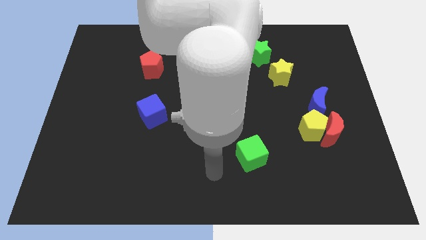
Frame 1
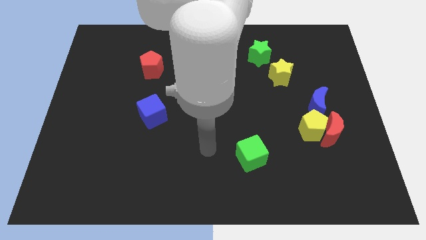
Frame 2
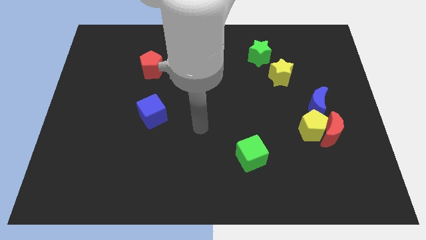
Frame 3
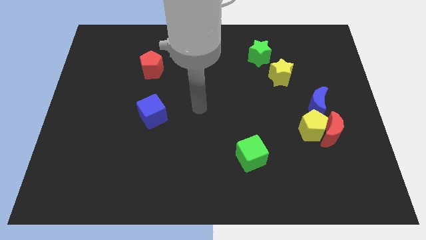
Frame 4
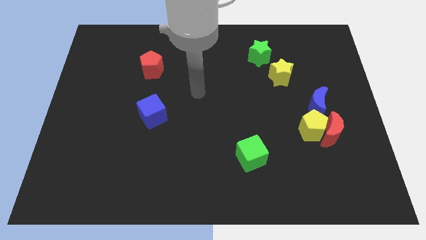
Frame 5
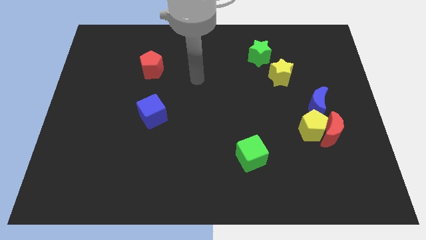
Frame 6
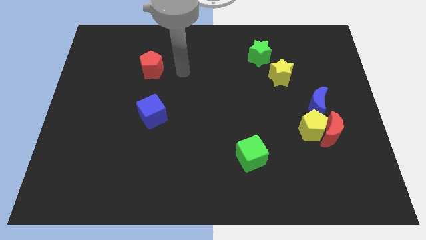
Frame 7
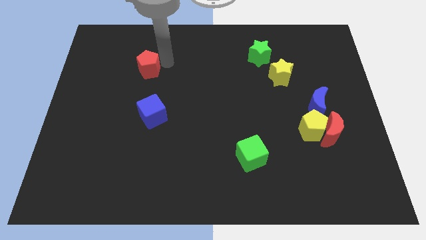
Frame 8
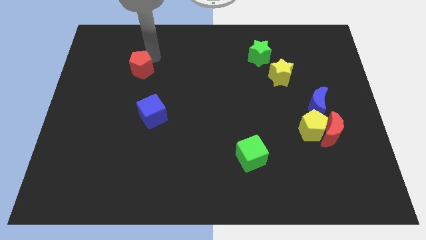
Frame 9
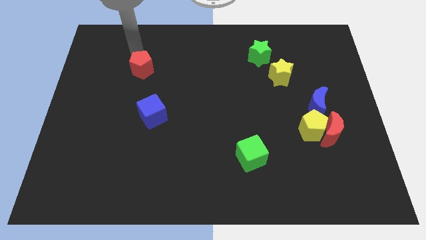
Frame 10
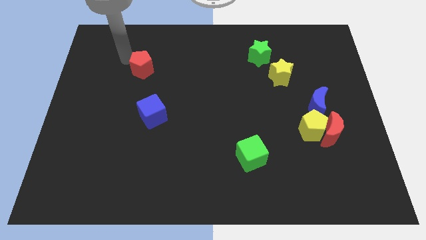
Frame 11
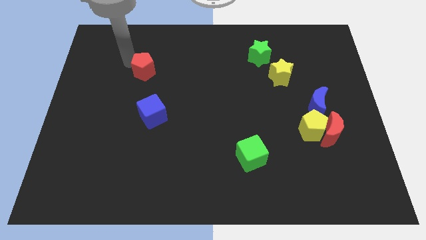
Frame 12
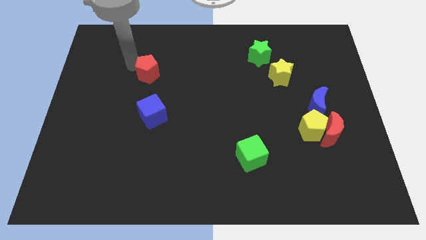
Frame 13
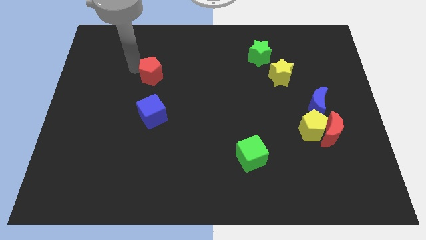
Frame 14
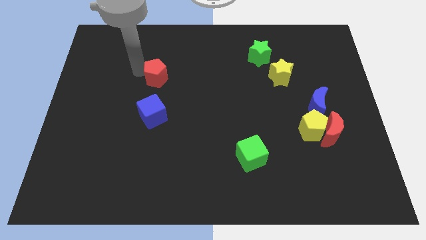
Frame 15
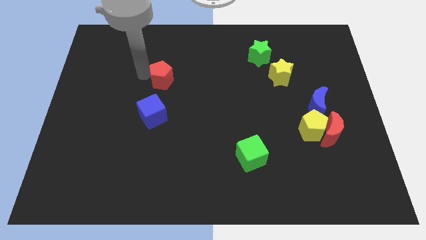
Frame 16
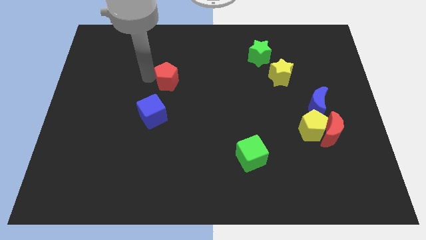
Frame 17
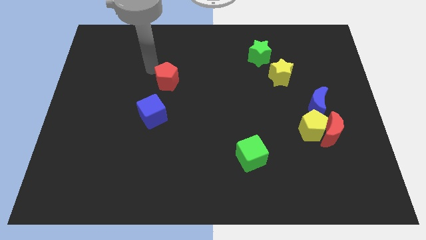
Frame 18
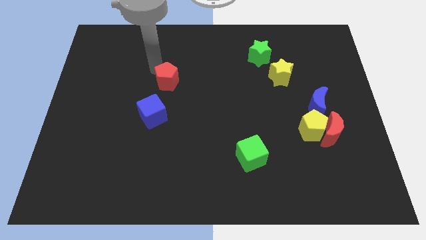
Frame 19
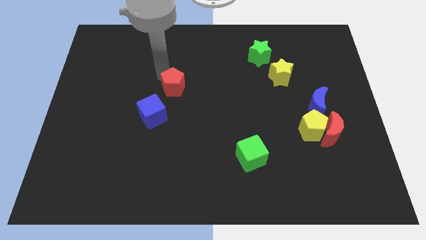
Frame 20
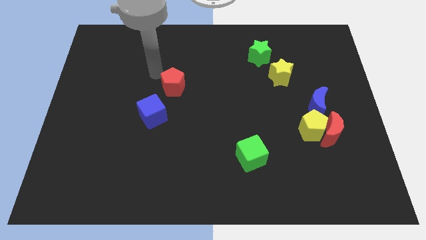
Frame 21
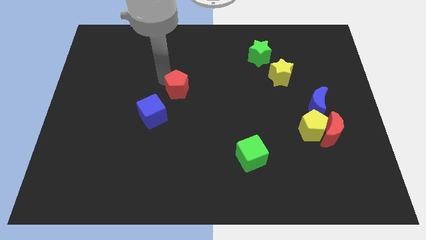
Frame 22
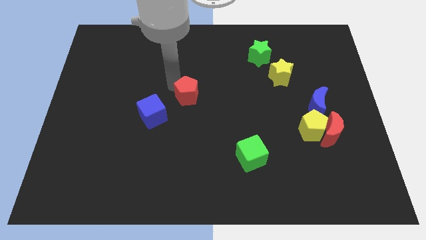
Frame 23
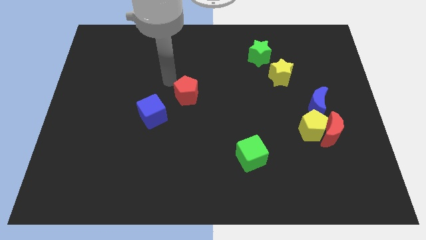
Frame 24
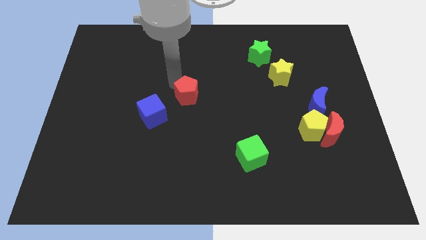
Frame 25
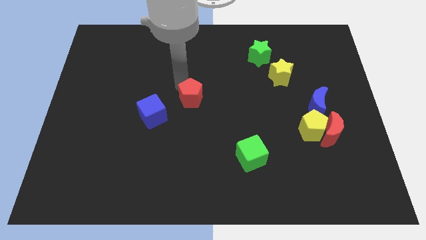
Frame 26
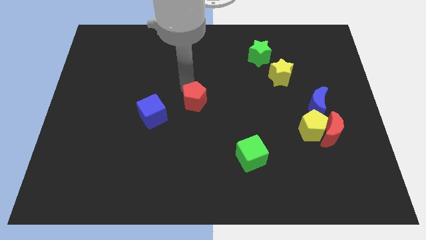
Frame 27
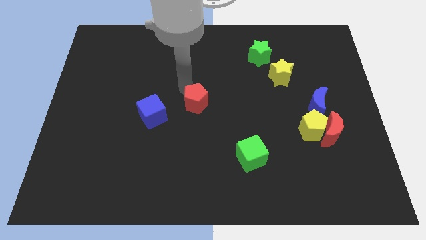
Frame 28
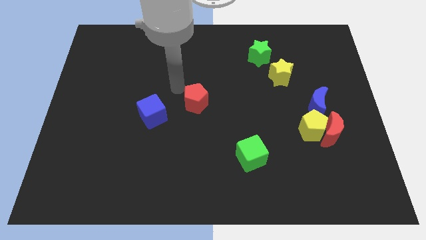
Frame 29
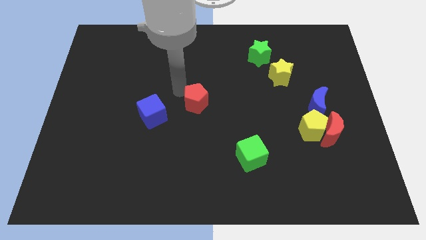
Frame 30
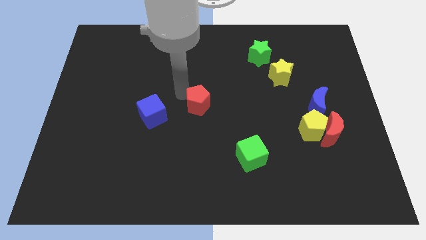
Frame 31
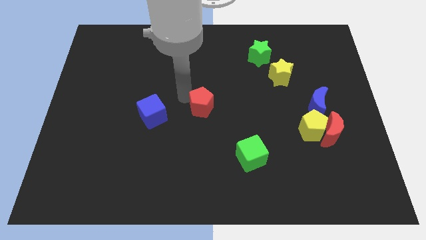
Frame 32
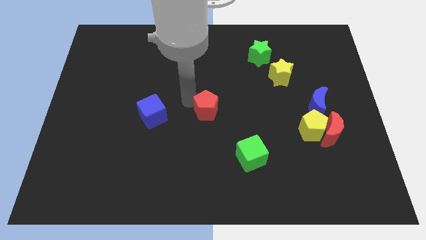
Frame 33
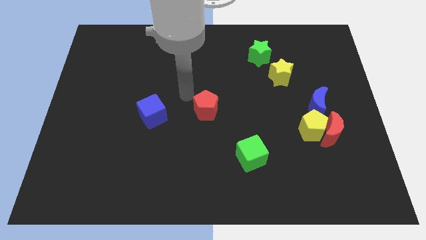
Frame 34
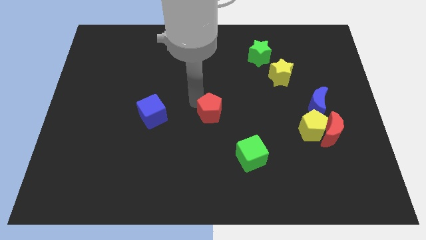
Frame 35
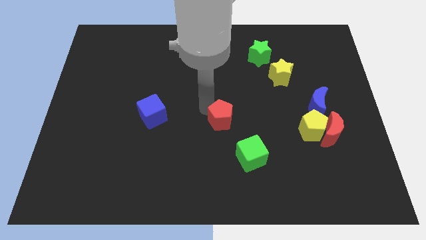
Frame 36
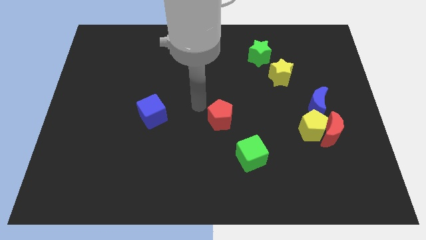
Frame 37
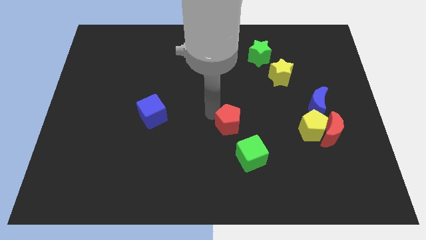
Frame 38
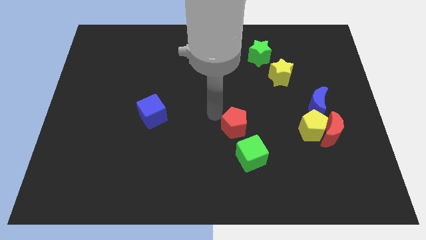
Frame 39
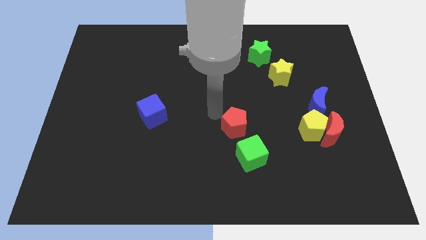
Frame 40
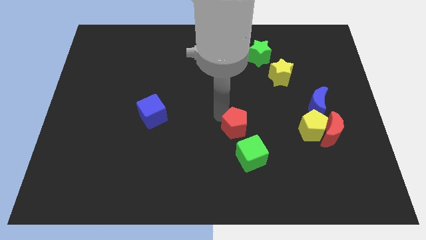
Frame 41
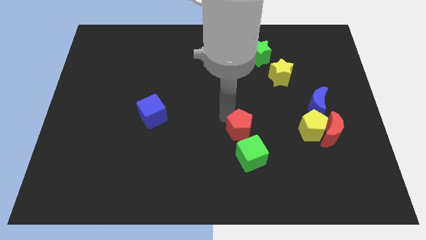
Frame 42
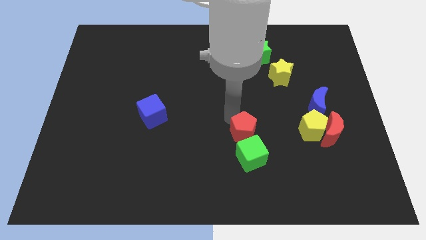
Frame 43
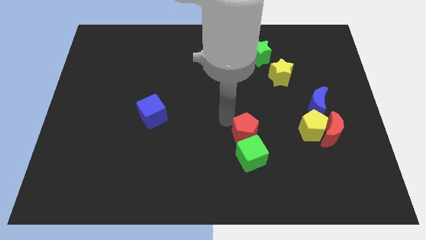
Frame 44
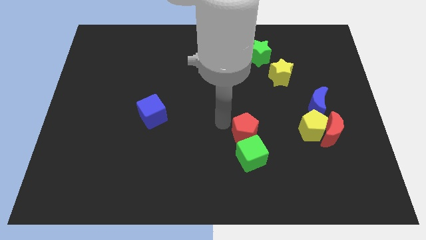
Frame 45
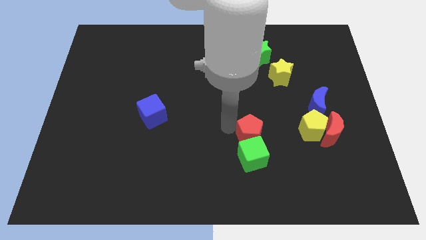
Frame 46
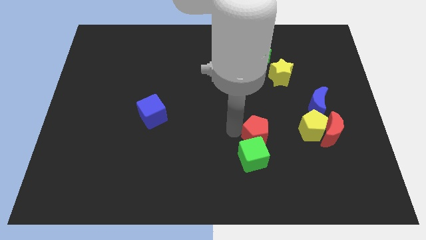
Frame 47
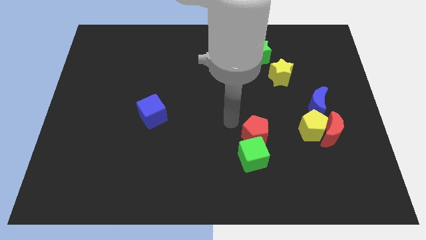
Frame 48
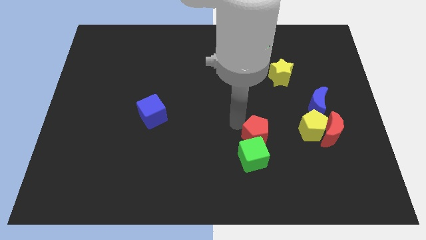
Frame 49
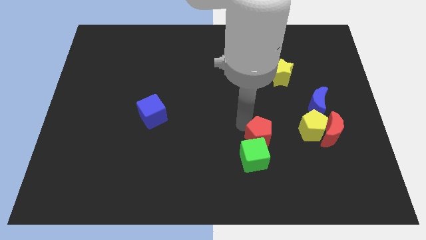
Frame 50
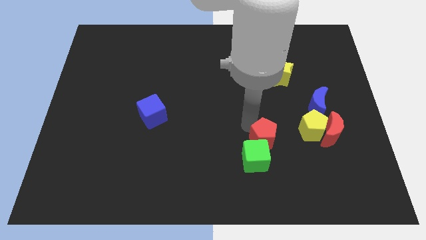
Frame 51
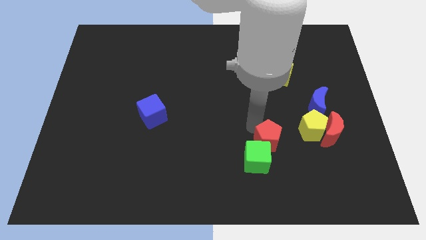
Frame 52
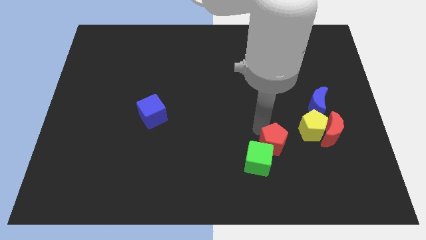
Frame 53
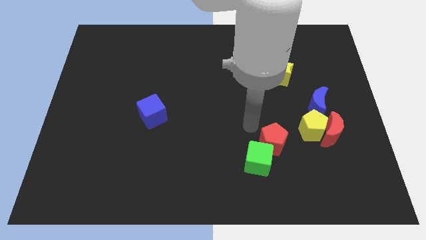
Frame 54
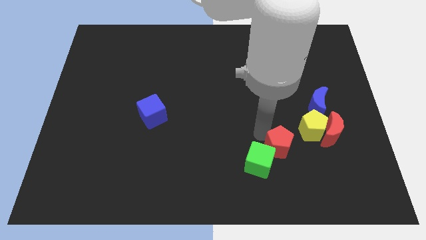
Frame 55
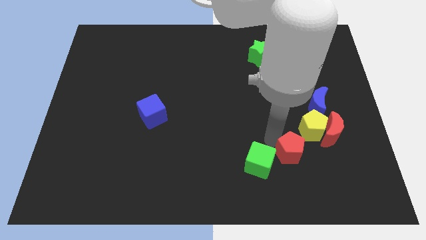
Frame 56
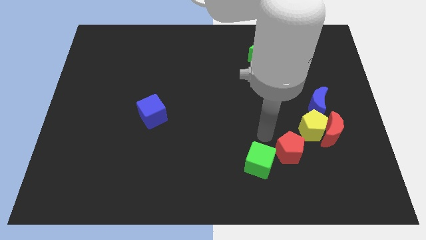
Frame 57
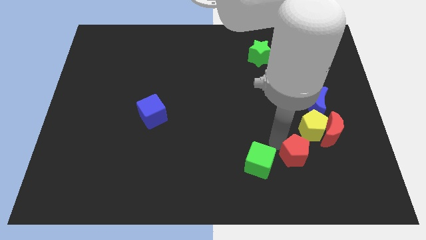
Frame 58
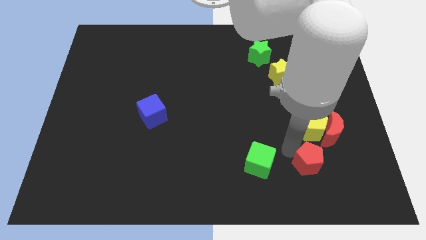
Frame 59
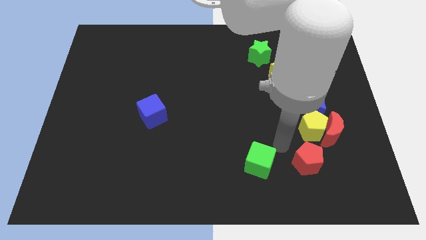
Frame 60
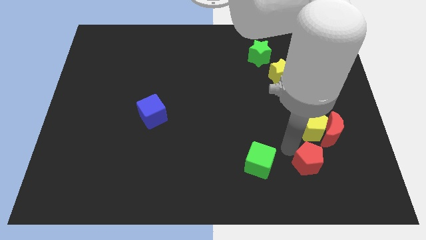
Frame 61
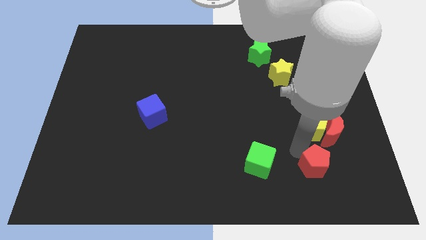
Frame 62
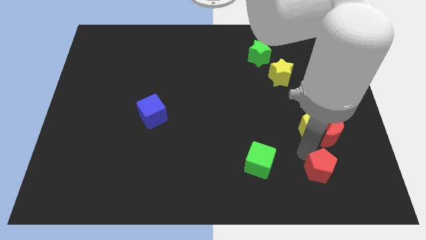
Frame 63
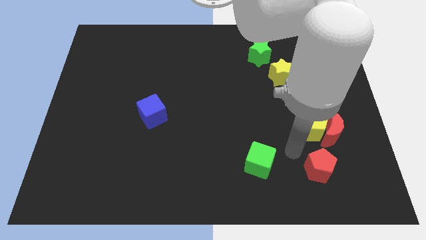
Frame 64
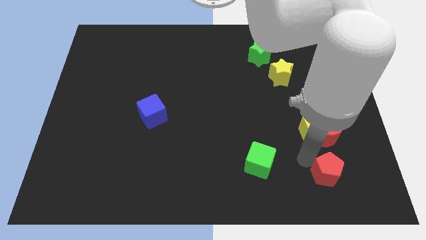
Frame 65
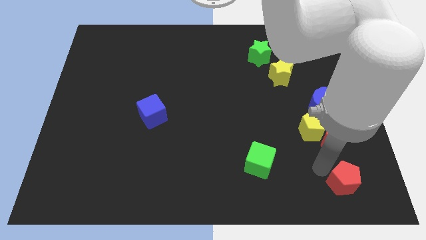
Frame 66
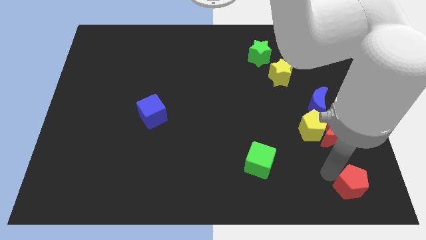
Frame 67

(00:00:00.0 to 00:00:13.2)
move the red pentagon to the lower right corner
